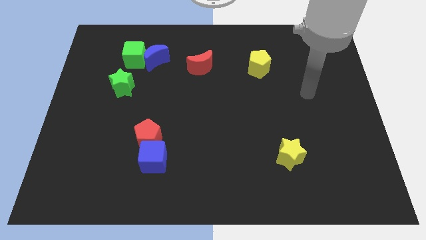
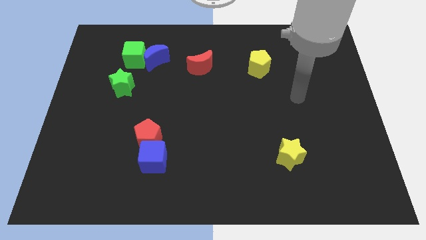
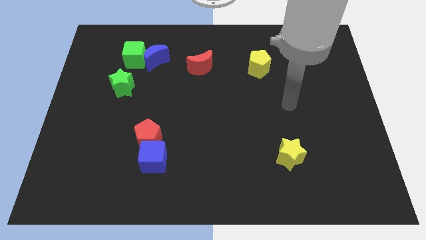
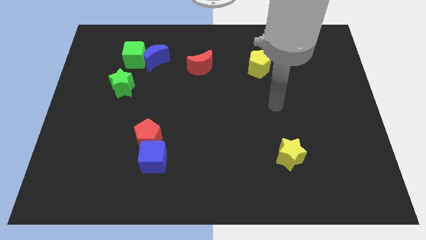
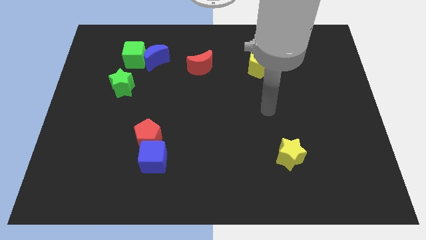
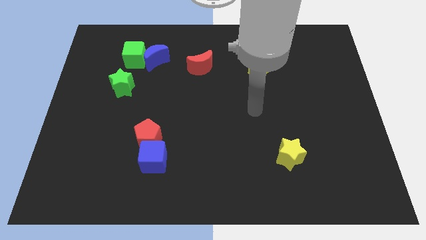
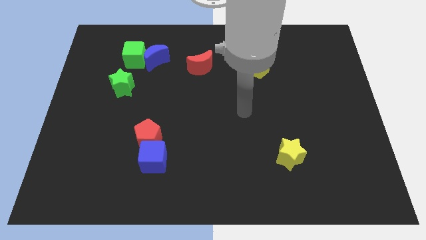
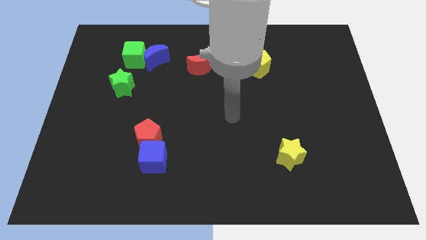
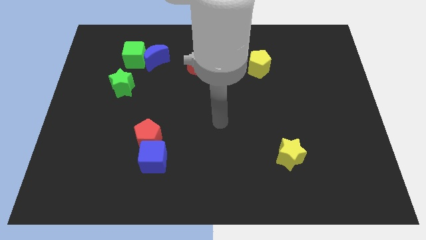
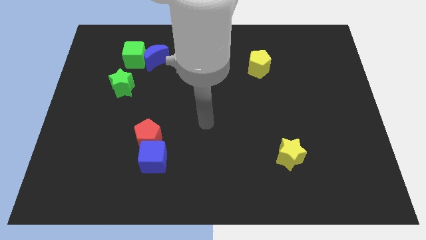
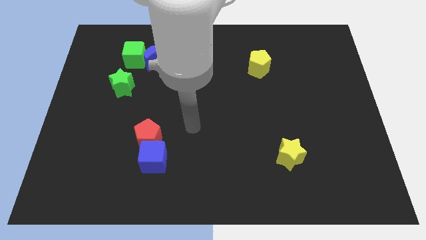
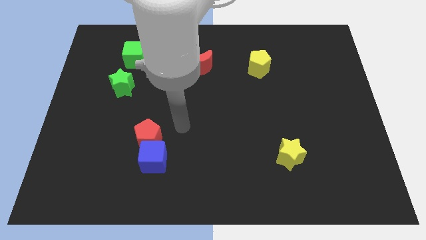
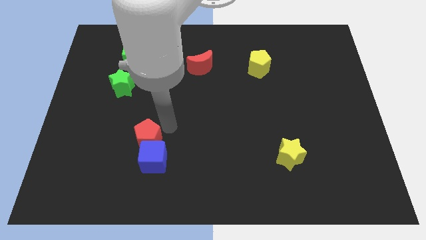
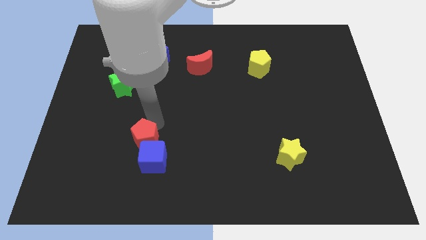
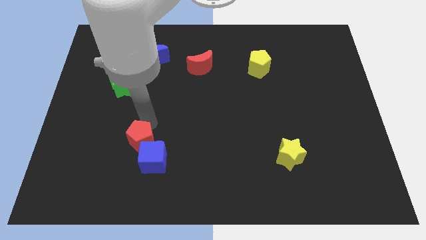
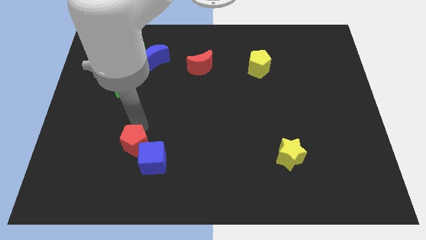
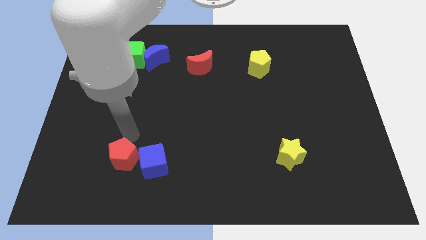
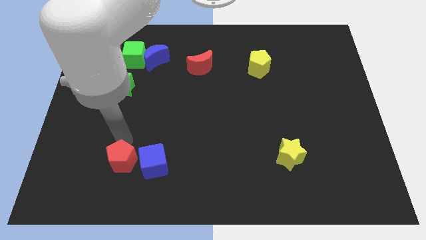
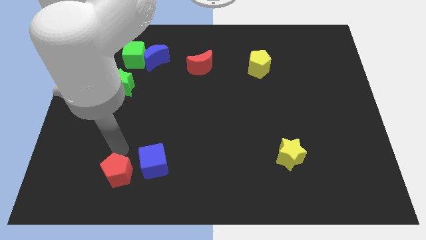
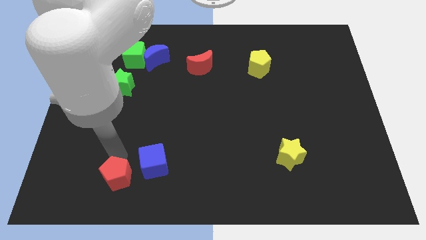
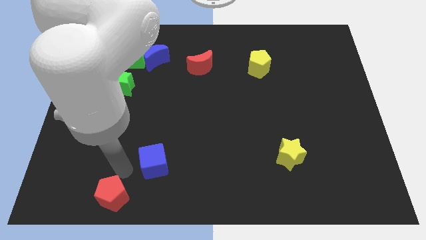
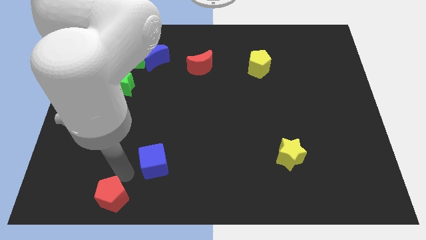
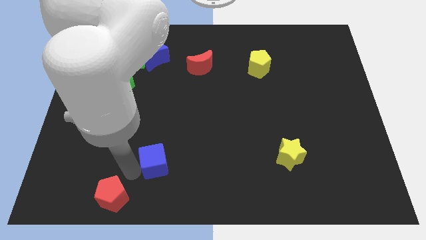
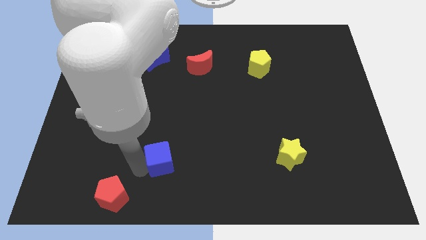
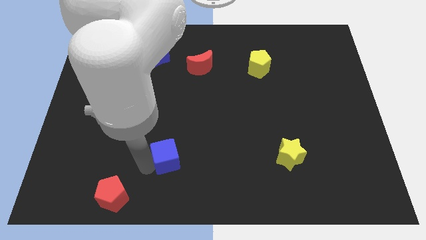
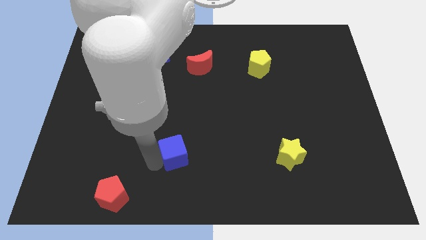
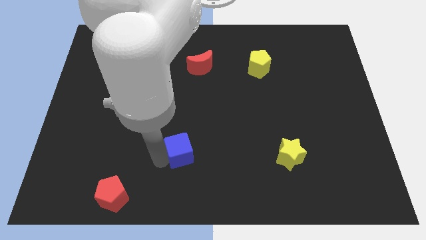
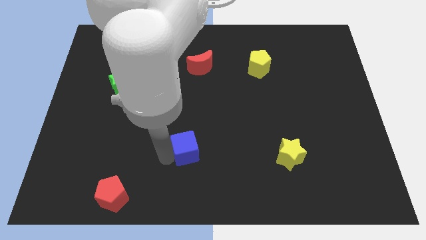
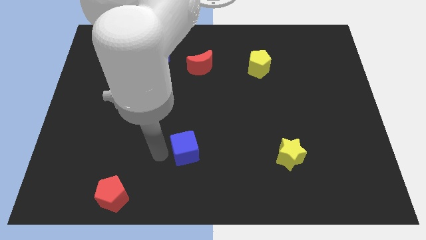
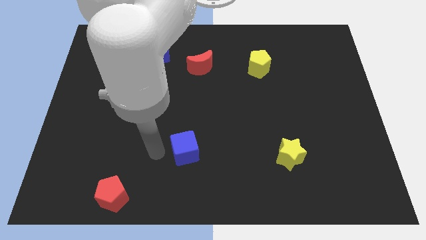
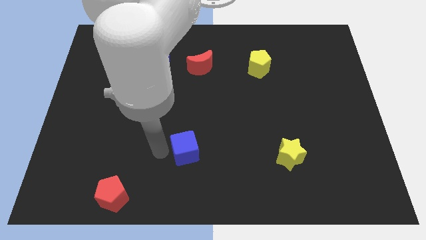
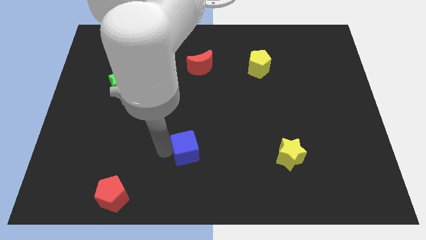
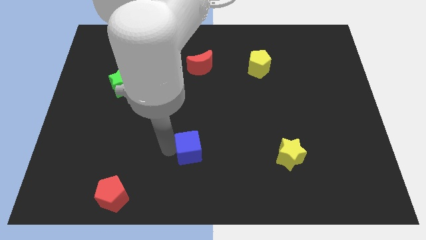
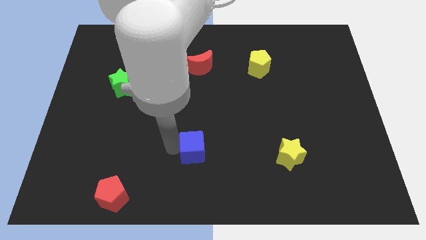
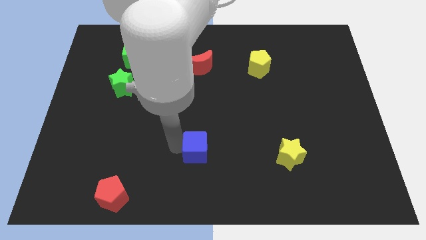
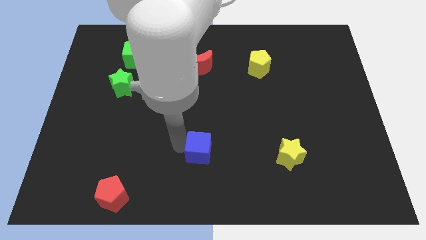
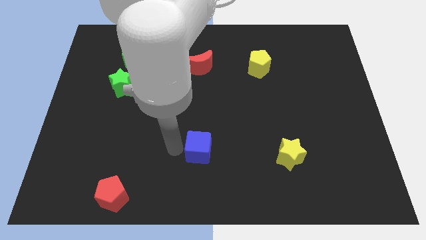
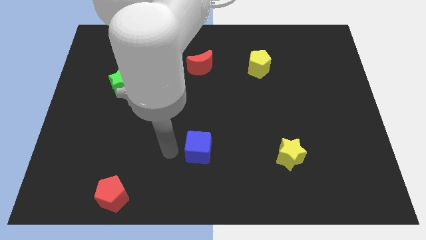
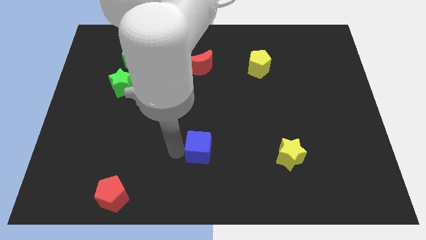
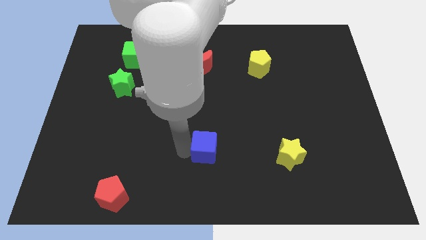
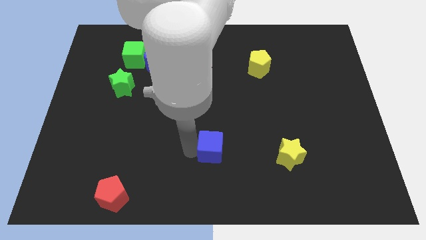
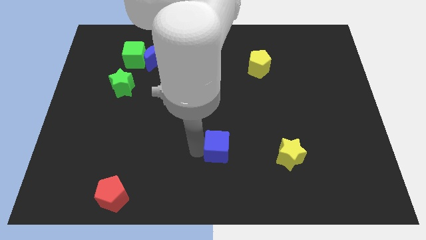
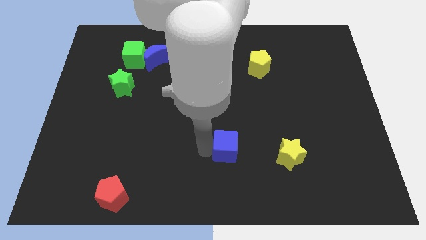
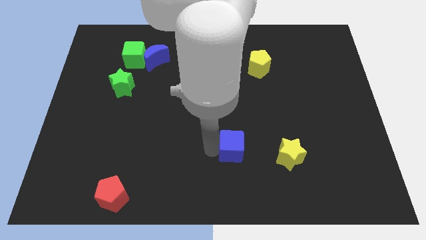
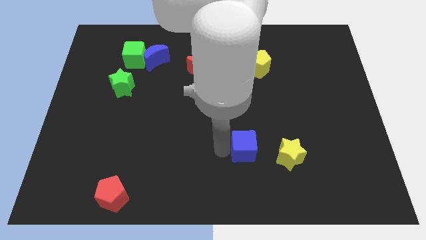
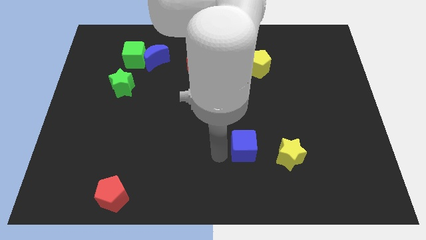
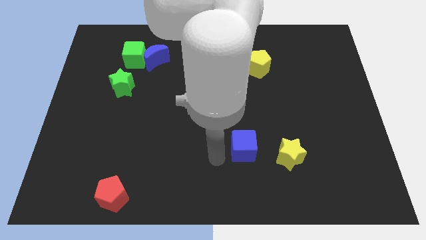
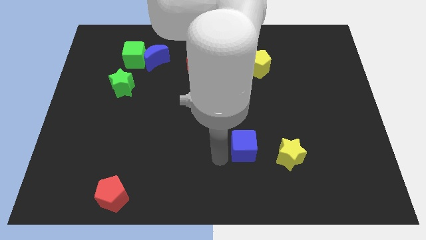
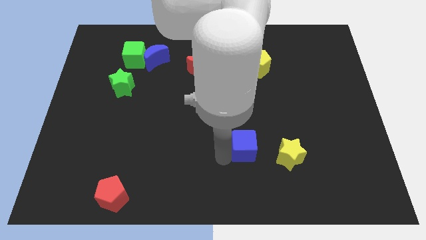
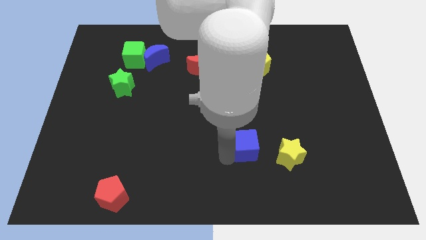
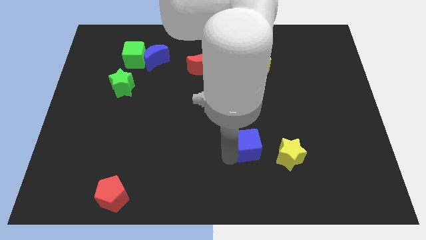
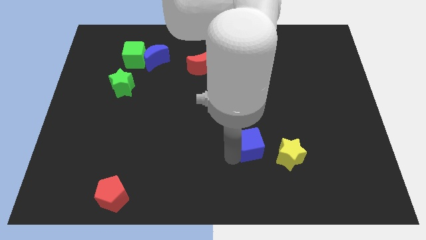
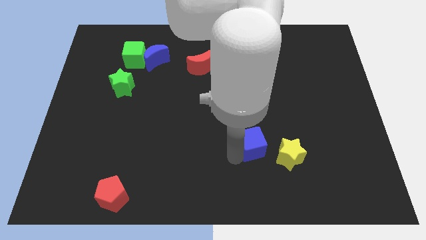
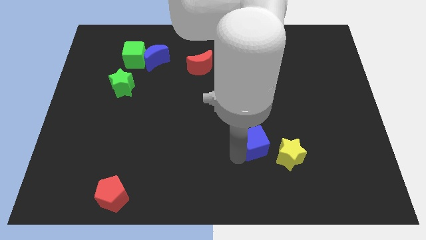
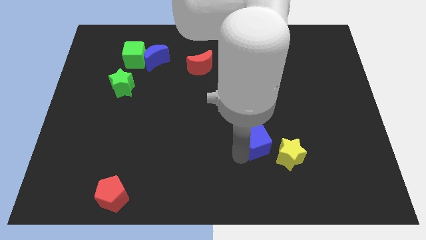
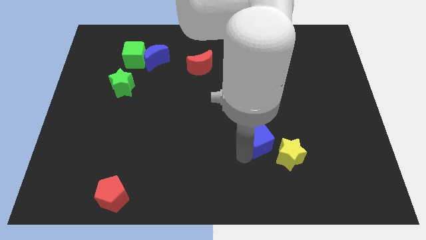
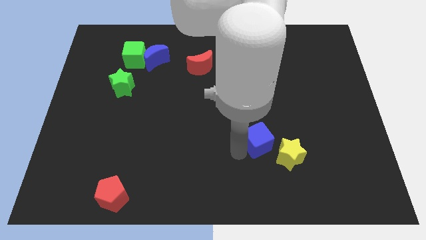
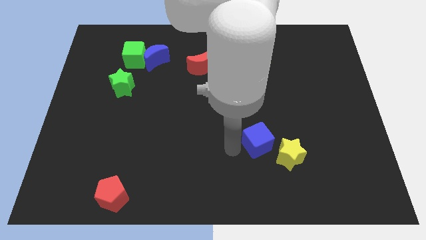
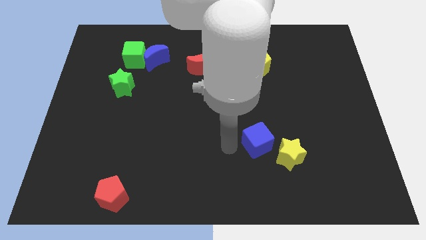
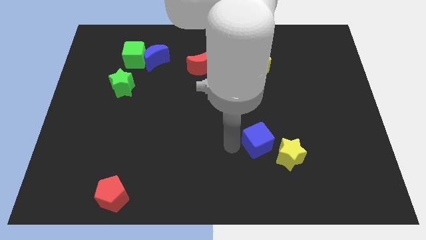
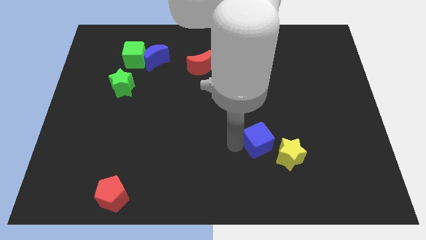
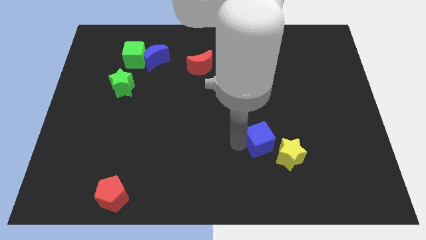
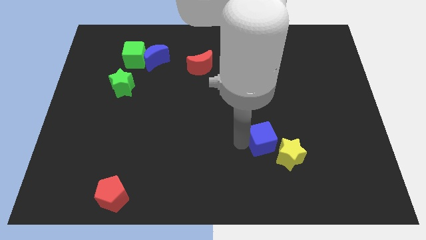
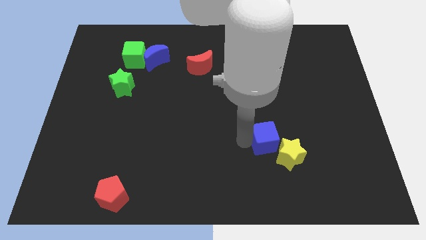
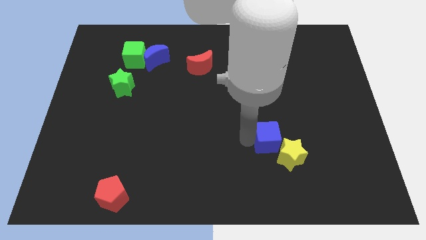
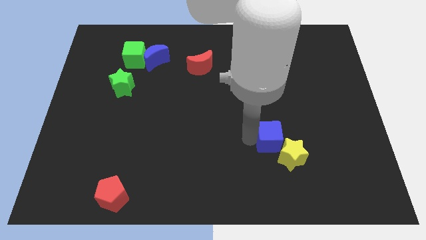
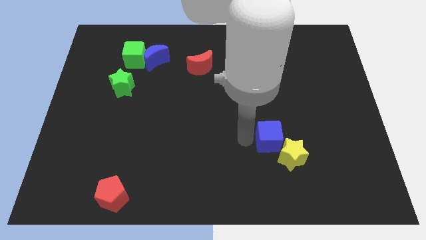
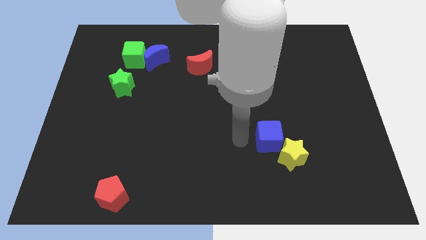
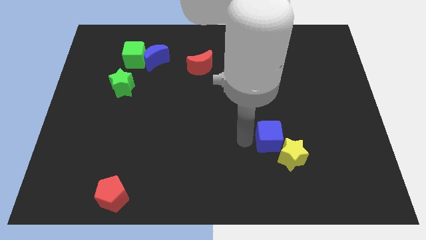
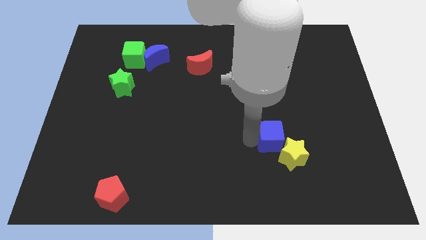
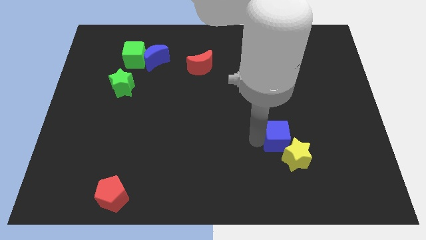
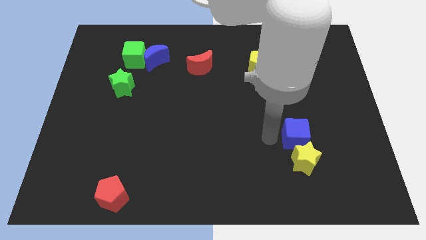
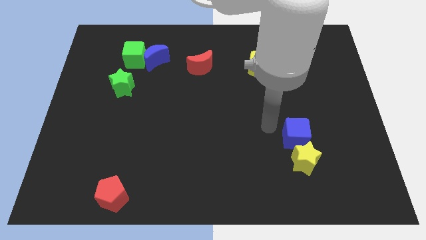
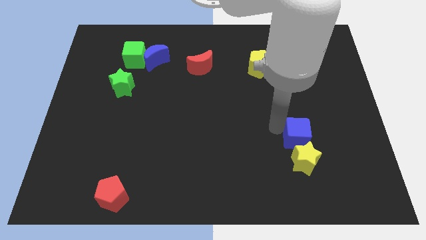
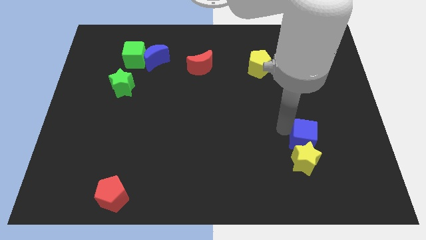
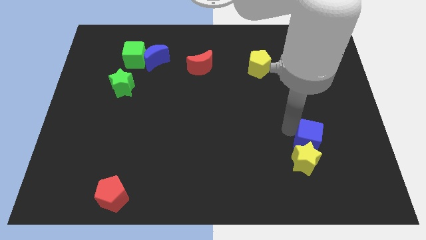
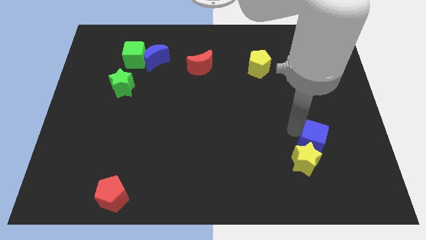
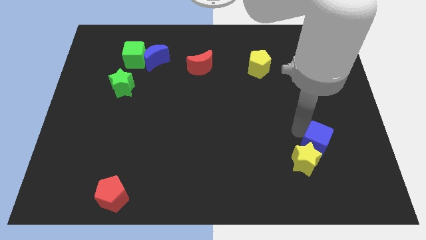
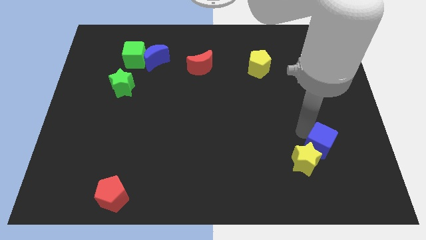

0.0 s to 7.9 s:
move the blue cube to the right of the yellow star
